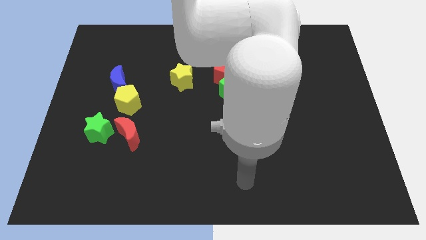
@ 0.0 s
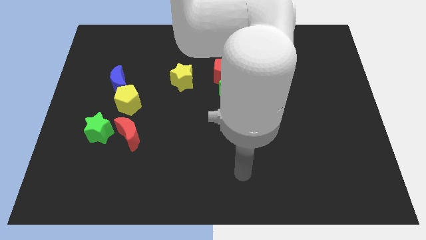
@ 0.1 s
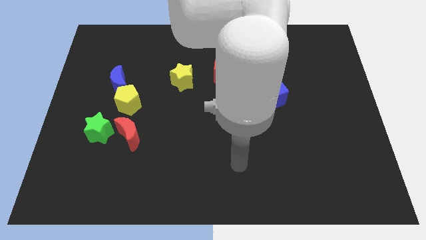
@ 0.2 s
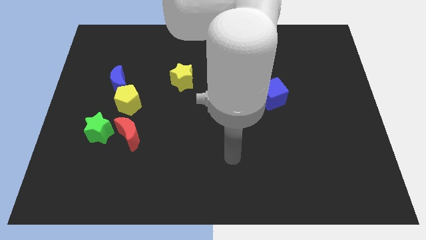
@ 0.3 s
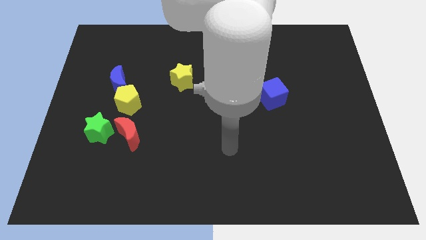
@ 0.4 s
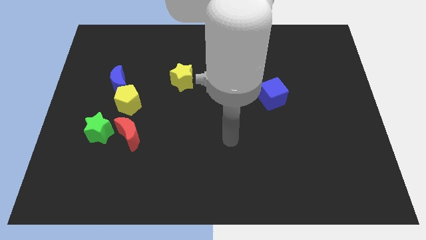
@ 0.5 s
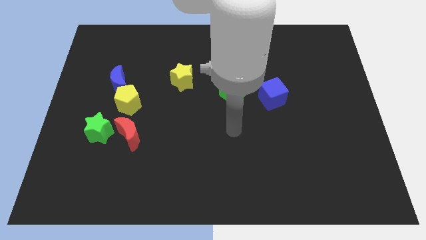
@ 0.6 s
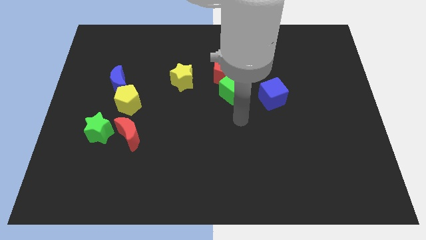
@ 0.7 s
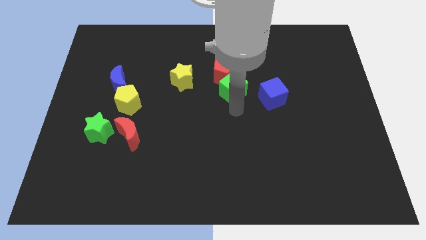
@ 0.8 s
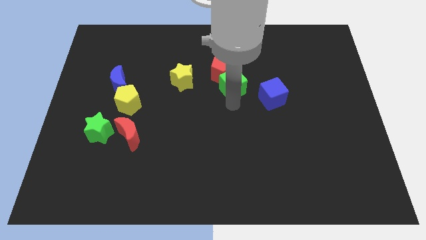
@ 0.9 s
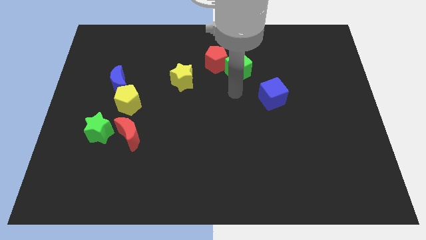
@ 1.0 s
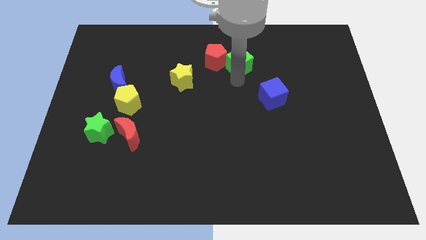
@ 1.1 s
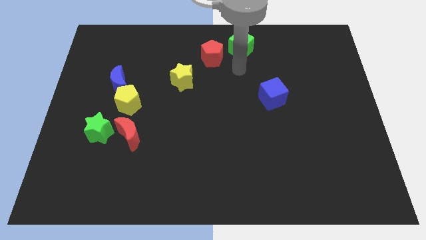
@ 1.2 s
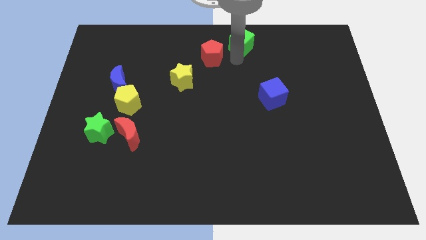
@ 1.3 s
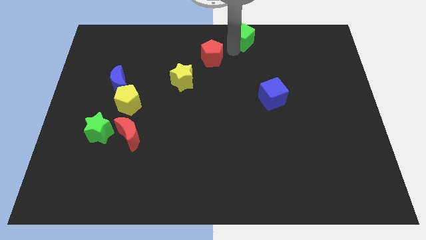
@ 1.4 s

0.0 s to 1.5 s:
pull the red pentagon apart from the green cube

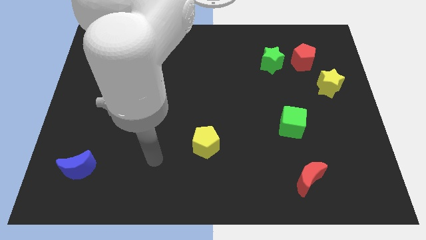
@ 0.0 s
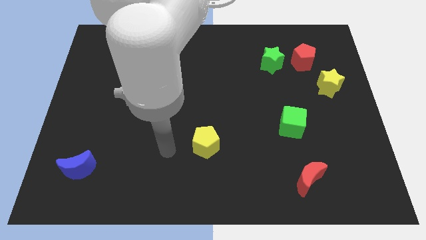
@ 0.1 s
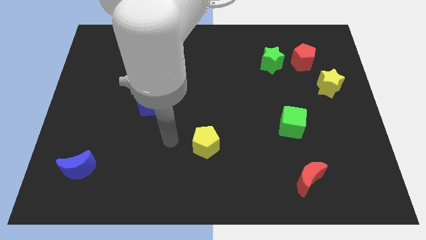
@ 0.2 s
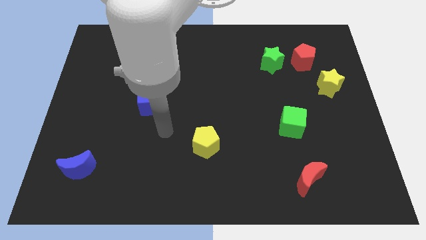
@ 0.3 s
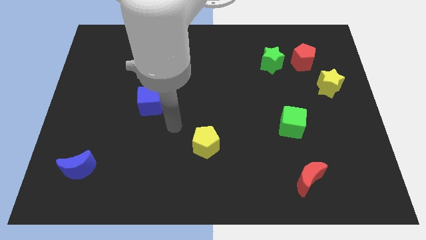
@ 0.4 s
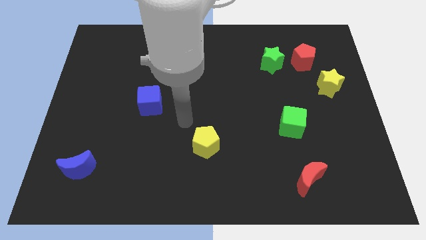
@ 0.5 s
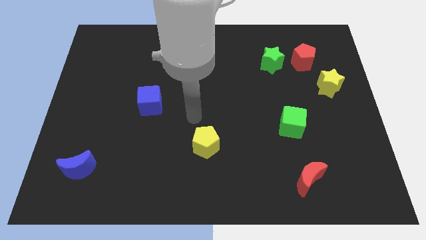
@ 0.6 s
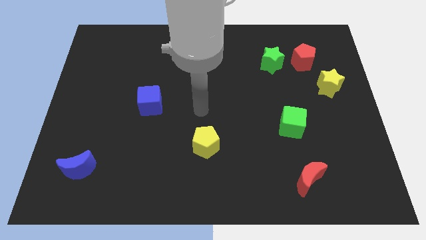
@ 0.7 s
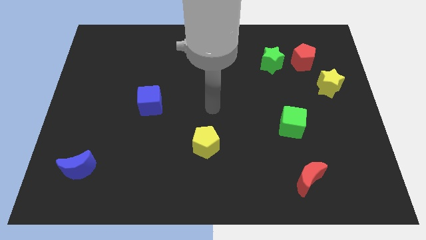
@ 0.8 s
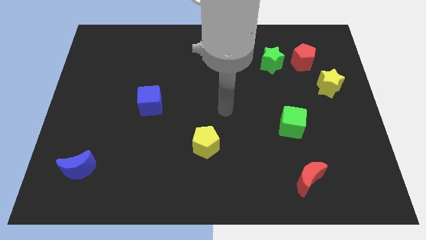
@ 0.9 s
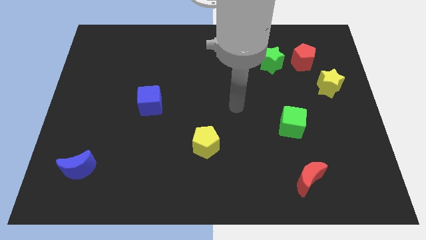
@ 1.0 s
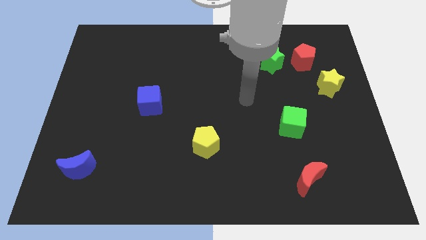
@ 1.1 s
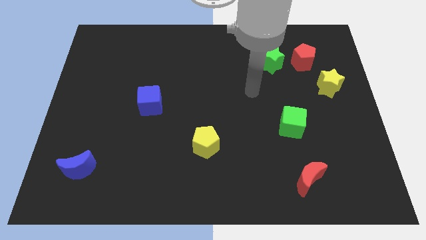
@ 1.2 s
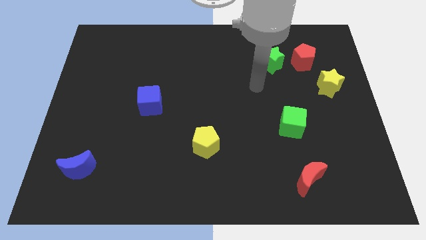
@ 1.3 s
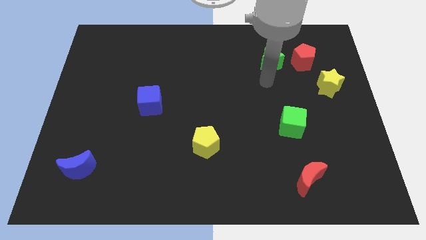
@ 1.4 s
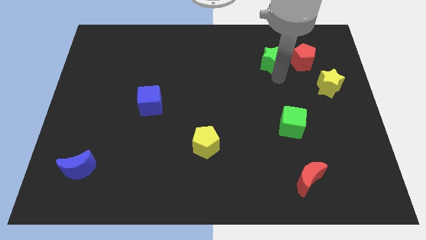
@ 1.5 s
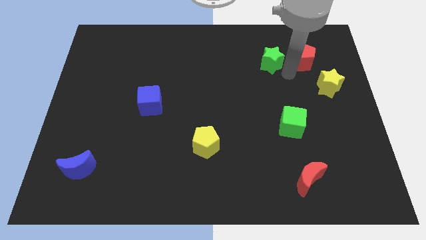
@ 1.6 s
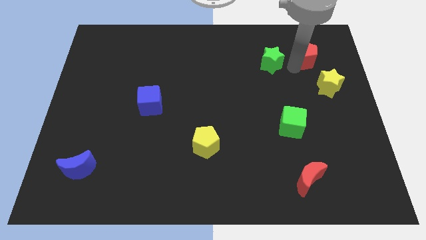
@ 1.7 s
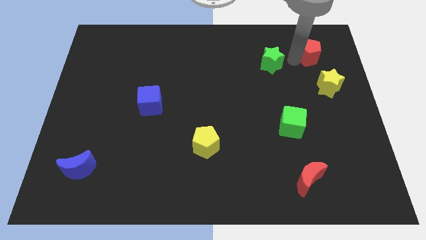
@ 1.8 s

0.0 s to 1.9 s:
move the green star away from the red pentagon

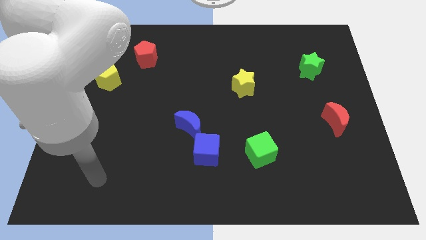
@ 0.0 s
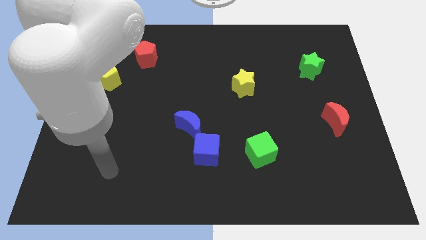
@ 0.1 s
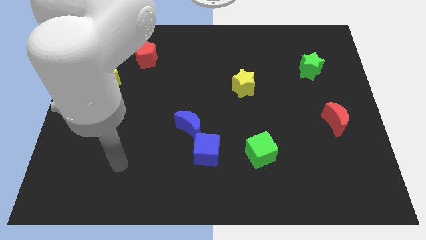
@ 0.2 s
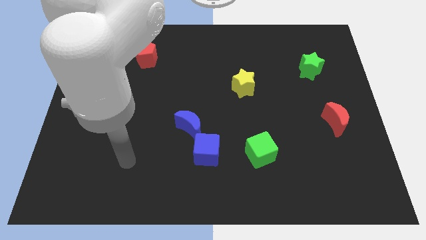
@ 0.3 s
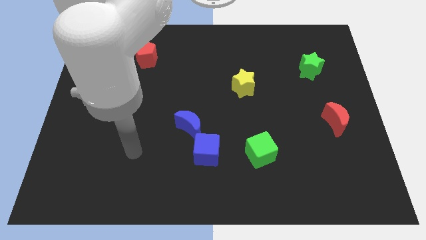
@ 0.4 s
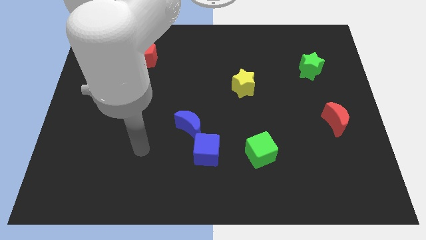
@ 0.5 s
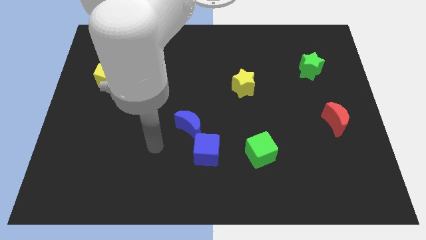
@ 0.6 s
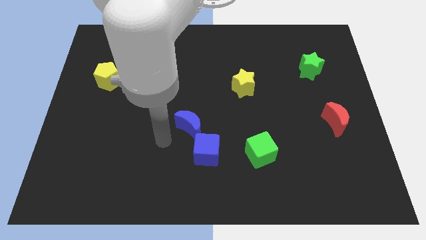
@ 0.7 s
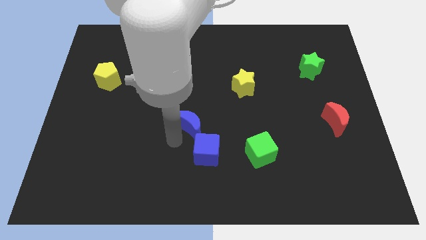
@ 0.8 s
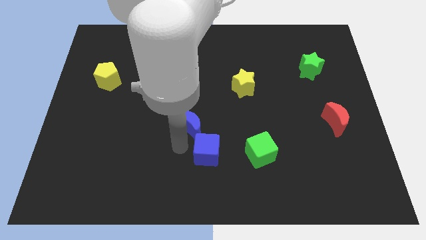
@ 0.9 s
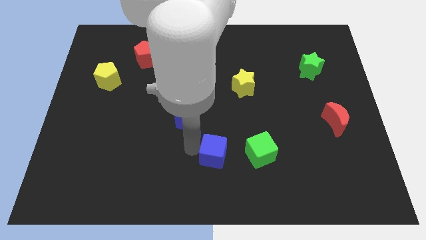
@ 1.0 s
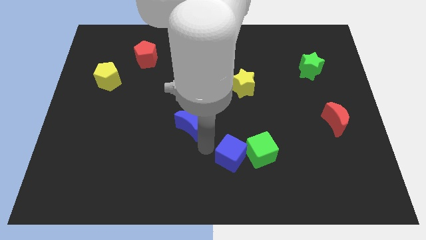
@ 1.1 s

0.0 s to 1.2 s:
separate the blue moon from the blue cube

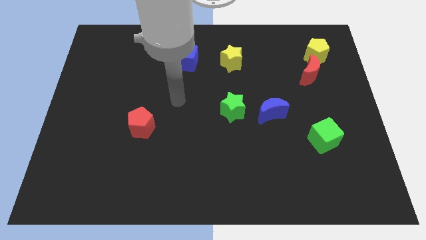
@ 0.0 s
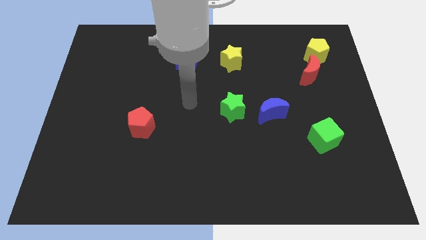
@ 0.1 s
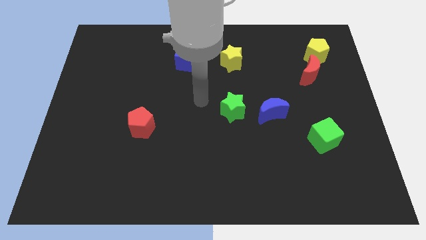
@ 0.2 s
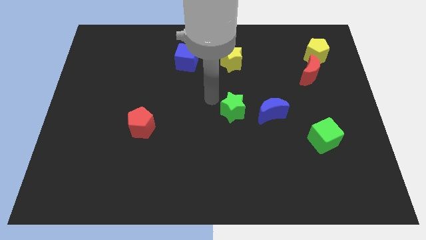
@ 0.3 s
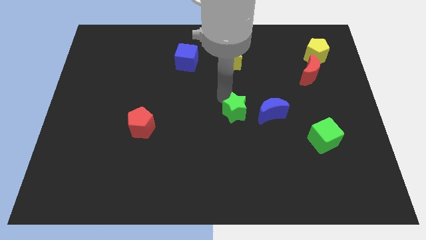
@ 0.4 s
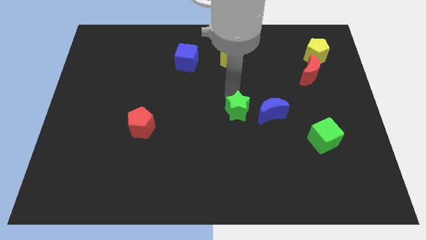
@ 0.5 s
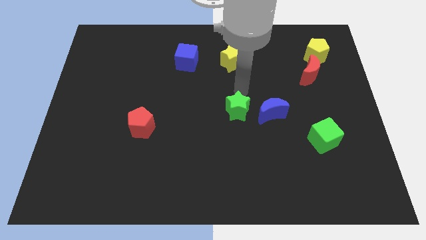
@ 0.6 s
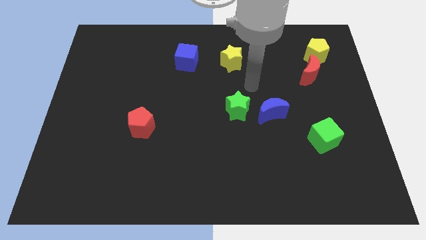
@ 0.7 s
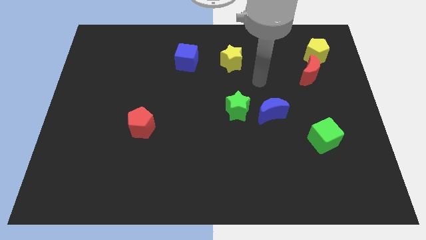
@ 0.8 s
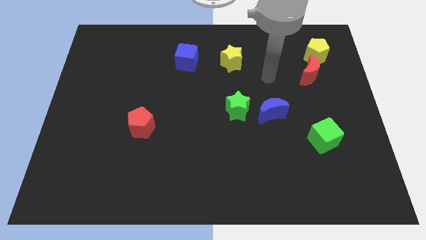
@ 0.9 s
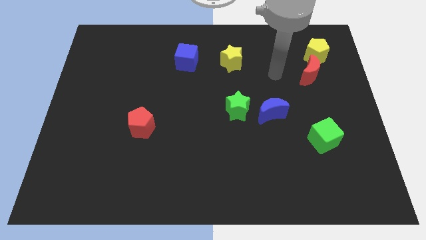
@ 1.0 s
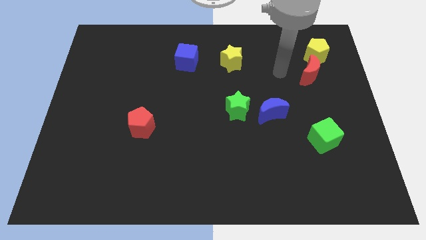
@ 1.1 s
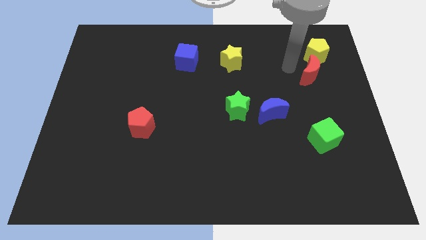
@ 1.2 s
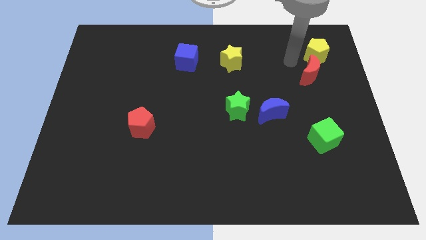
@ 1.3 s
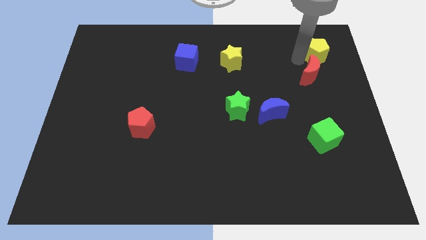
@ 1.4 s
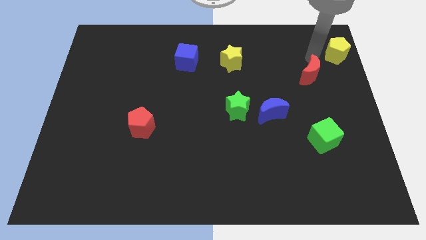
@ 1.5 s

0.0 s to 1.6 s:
pull the red moon apart from the yellow pentagon

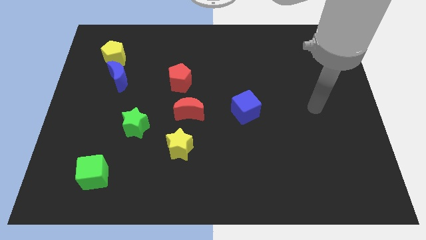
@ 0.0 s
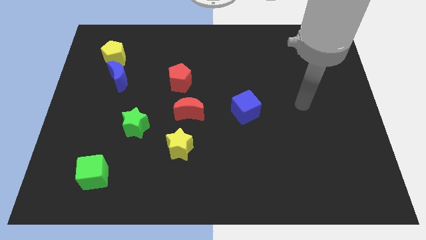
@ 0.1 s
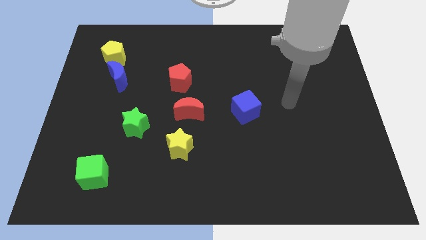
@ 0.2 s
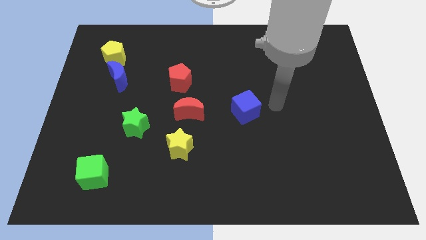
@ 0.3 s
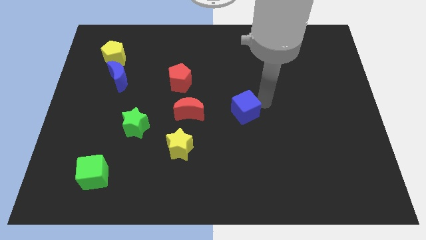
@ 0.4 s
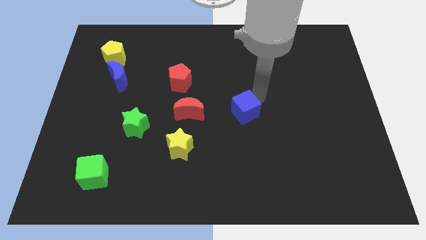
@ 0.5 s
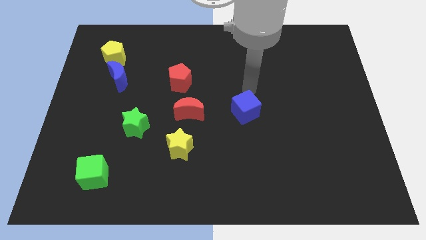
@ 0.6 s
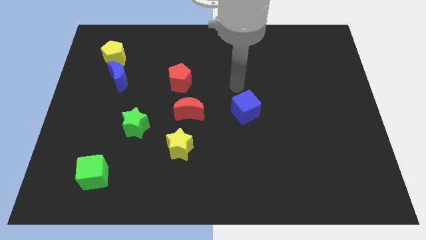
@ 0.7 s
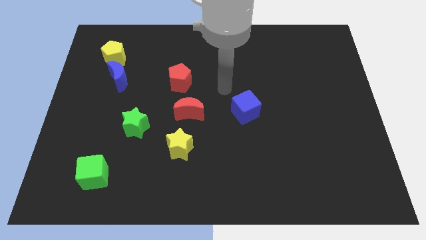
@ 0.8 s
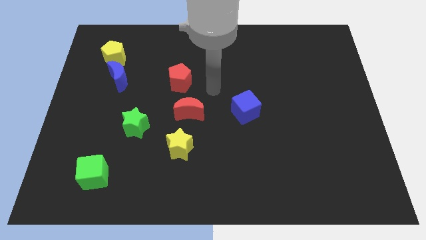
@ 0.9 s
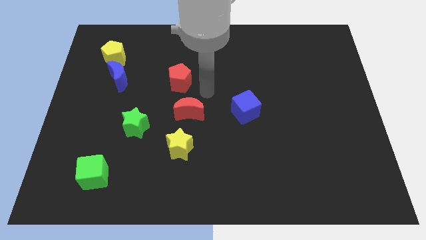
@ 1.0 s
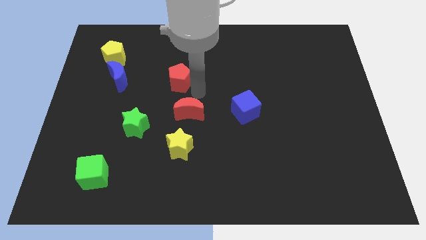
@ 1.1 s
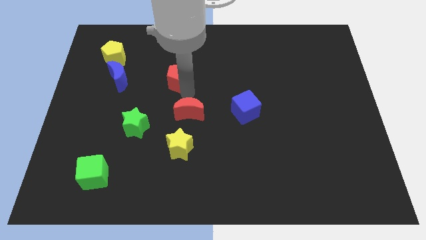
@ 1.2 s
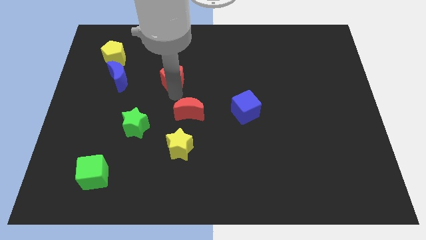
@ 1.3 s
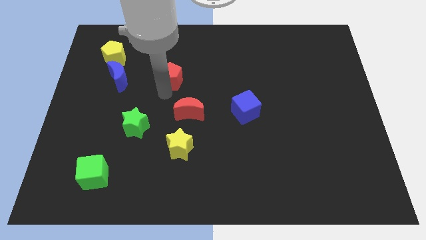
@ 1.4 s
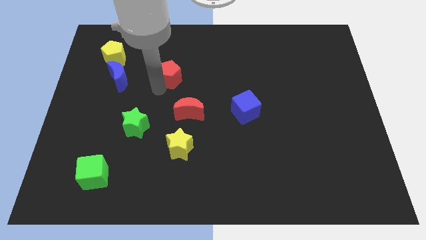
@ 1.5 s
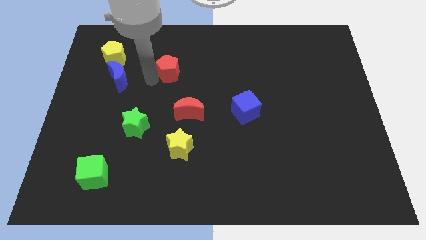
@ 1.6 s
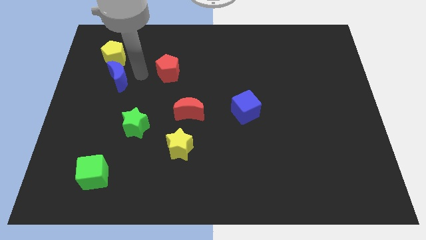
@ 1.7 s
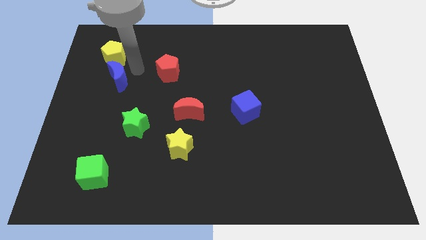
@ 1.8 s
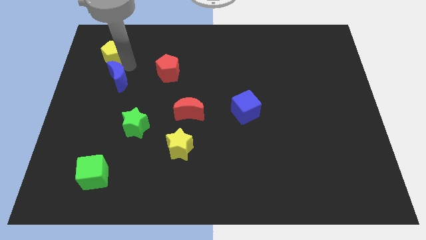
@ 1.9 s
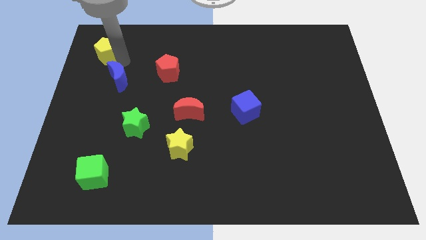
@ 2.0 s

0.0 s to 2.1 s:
move the blue moon away from the yellow pentagon

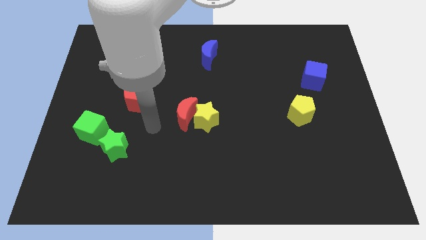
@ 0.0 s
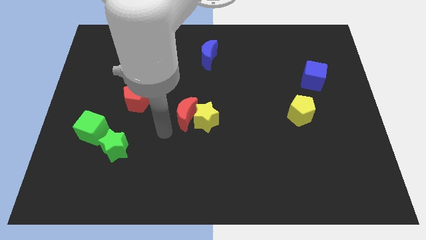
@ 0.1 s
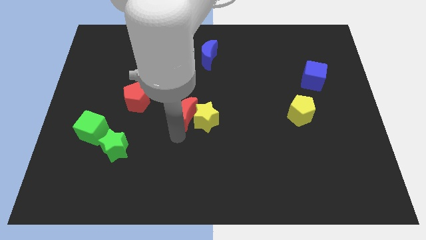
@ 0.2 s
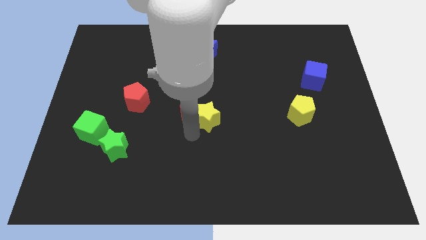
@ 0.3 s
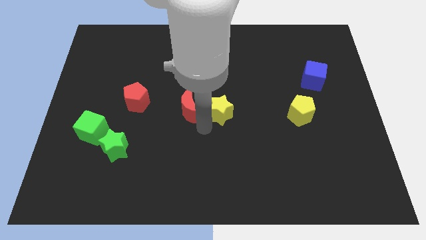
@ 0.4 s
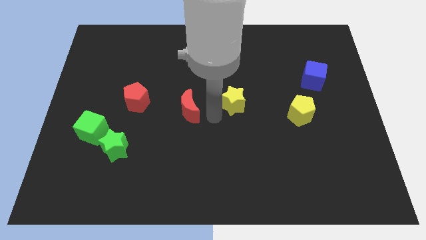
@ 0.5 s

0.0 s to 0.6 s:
separate the red moon from the yellow star

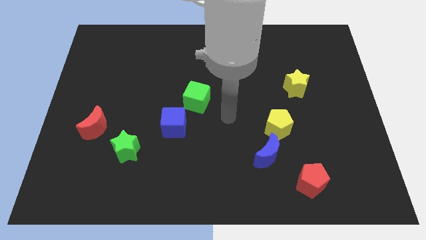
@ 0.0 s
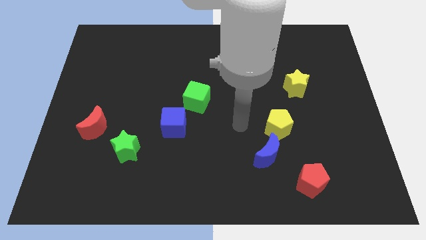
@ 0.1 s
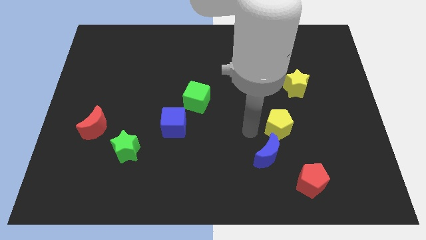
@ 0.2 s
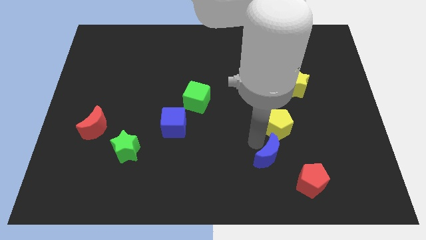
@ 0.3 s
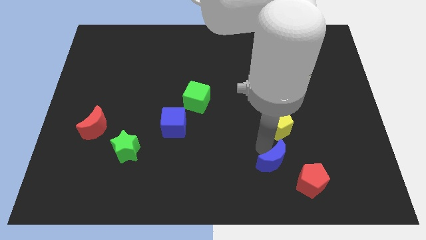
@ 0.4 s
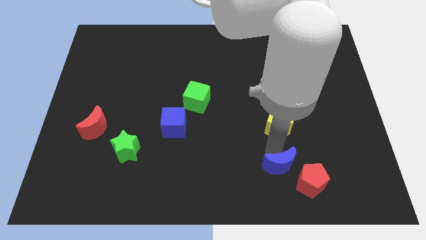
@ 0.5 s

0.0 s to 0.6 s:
pull the yellow pentagon apart from the blue moon
